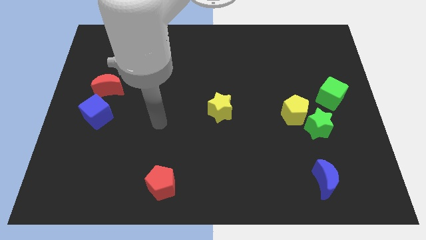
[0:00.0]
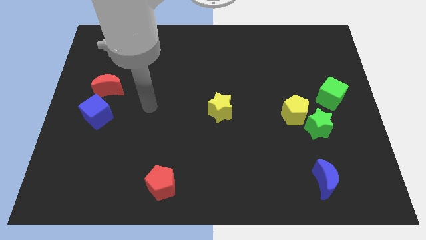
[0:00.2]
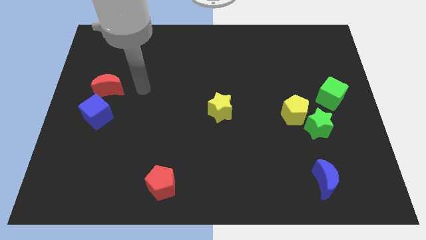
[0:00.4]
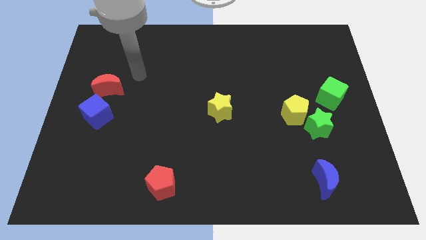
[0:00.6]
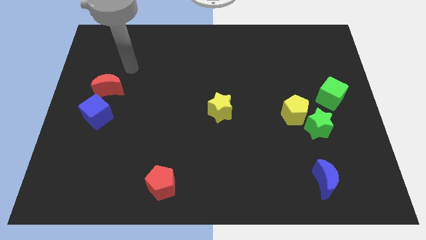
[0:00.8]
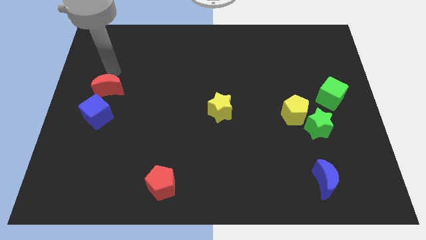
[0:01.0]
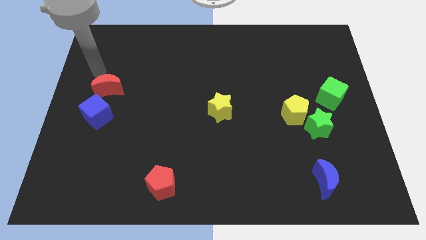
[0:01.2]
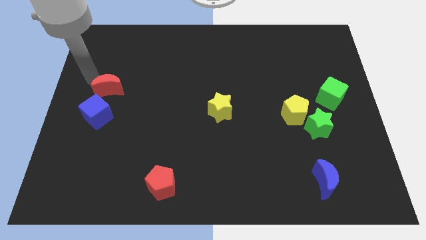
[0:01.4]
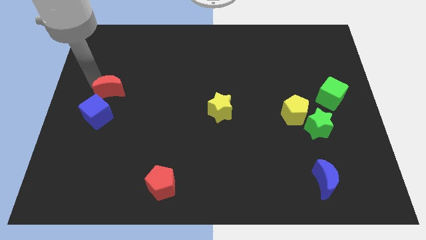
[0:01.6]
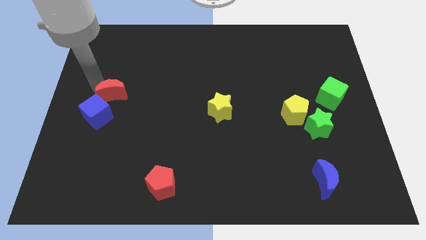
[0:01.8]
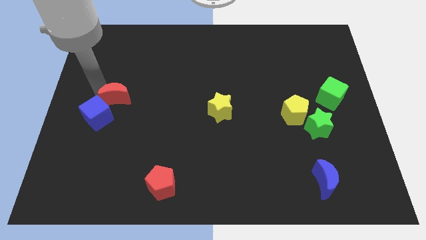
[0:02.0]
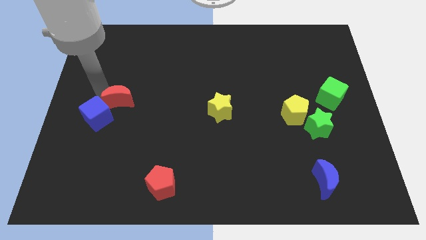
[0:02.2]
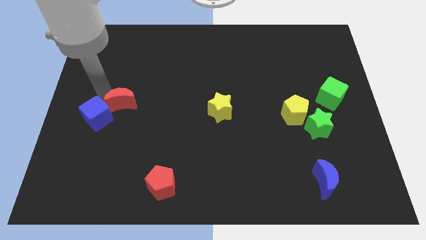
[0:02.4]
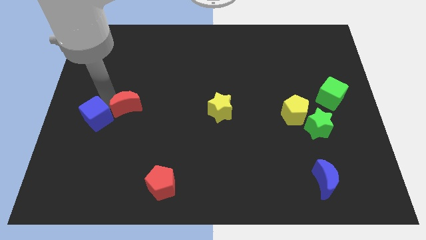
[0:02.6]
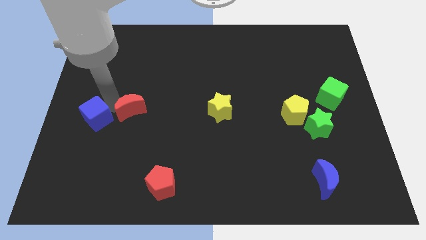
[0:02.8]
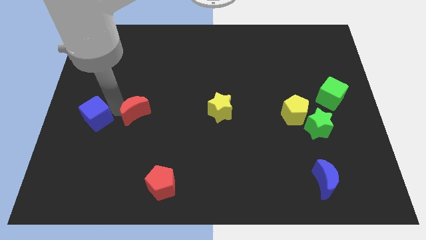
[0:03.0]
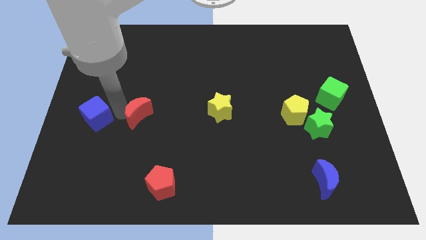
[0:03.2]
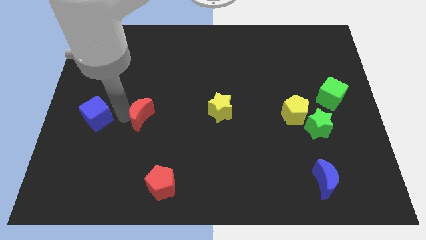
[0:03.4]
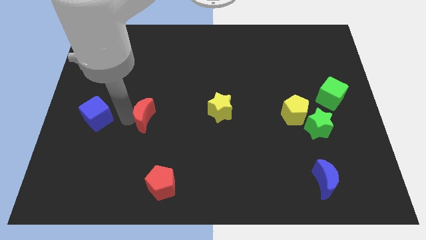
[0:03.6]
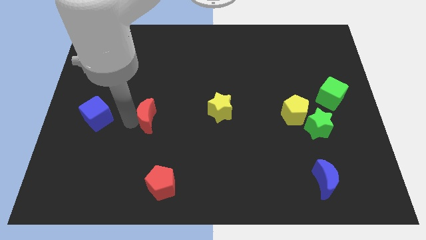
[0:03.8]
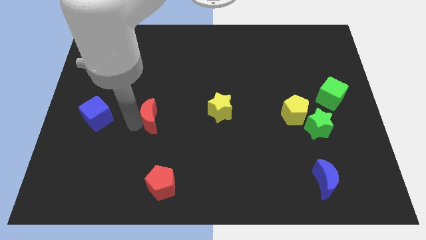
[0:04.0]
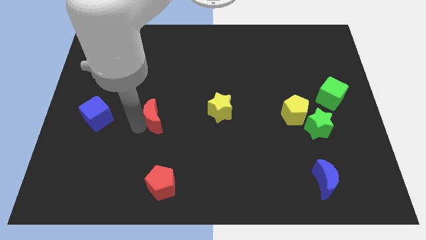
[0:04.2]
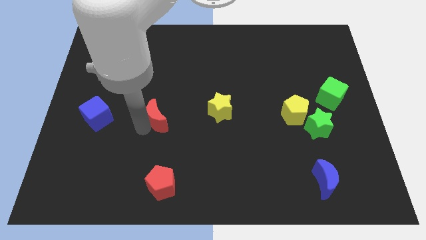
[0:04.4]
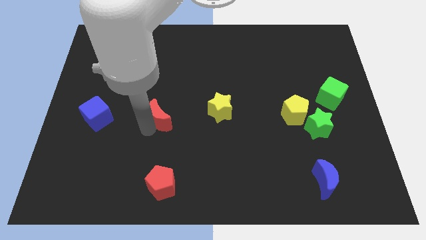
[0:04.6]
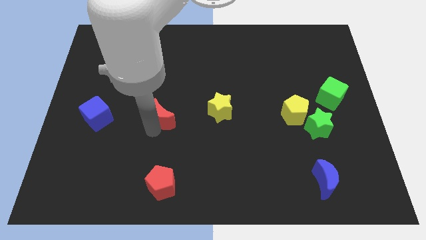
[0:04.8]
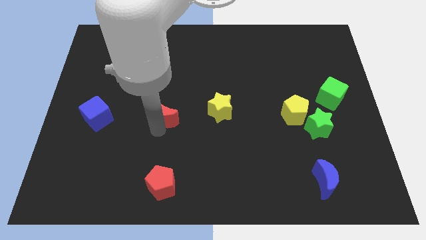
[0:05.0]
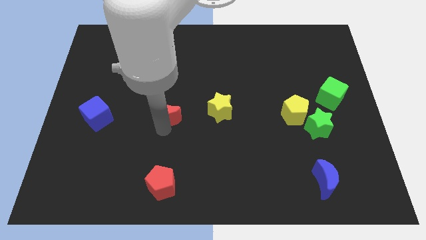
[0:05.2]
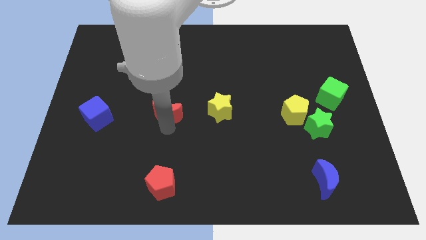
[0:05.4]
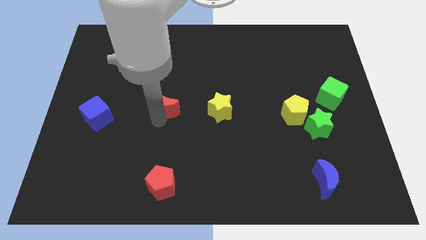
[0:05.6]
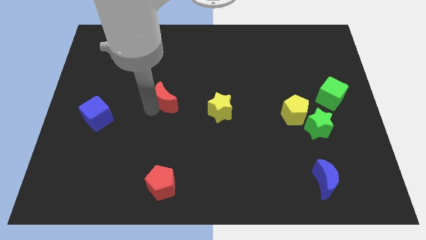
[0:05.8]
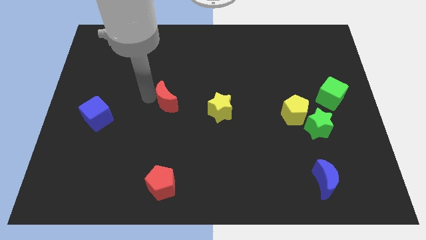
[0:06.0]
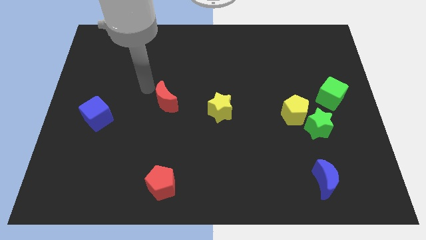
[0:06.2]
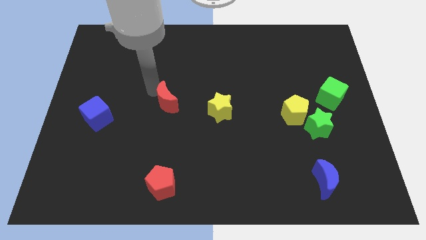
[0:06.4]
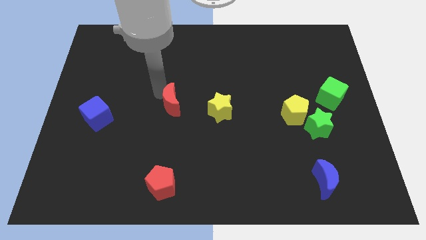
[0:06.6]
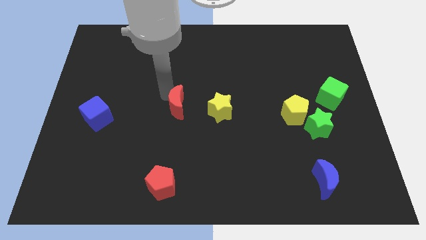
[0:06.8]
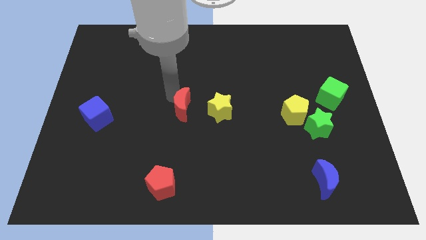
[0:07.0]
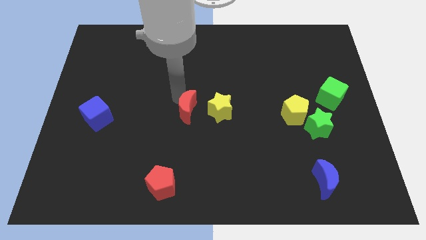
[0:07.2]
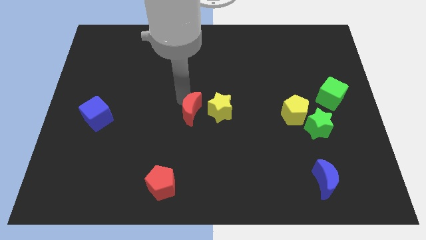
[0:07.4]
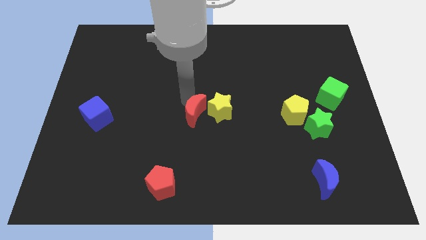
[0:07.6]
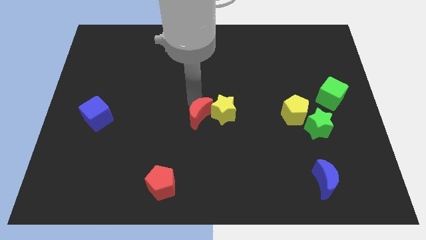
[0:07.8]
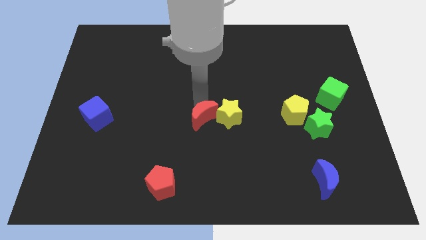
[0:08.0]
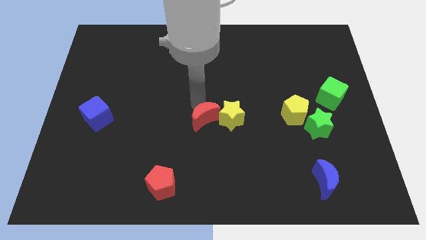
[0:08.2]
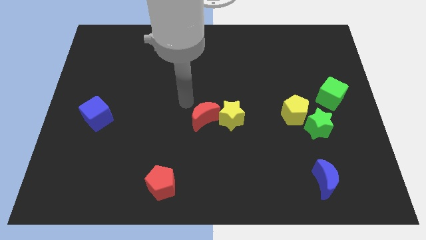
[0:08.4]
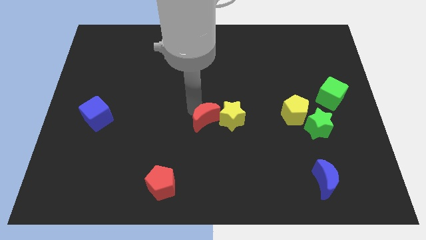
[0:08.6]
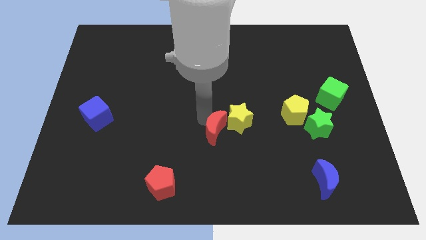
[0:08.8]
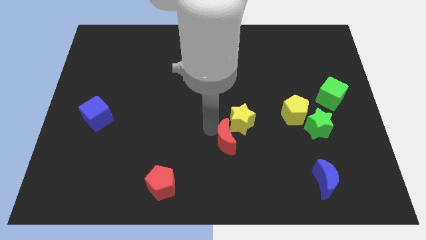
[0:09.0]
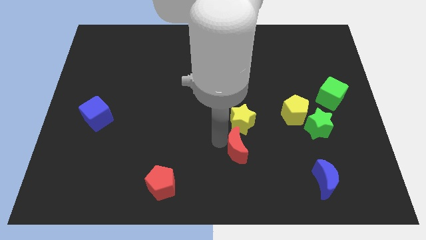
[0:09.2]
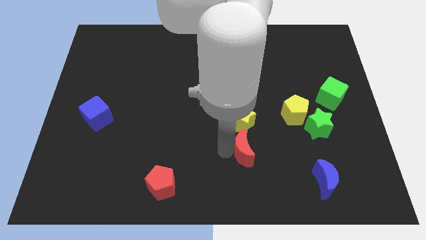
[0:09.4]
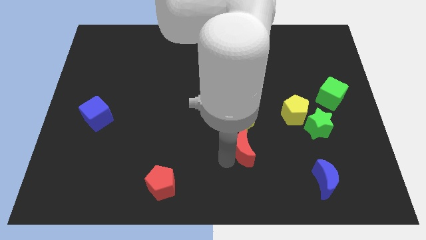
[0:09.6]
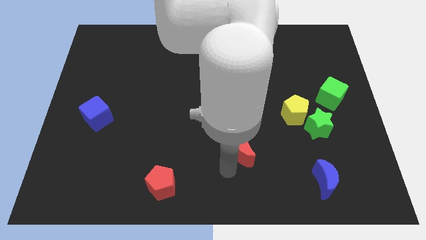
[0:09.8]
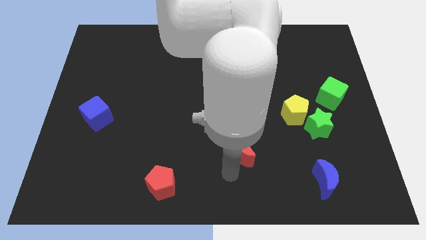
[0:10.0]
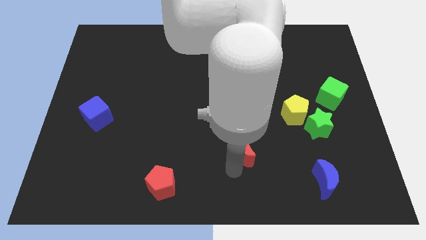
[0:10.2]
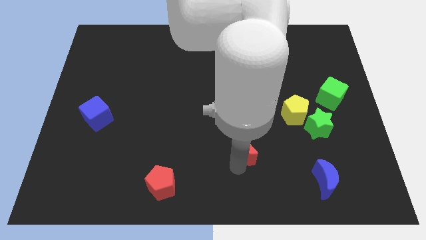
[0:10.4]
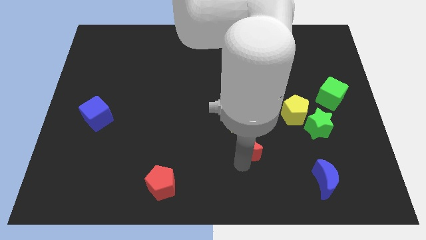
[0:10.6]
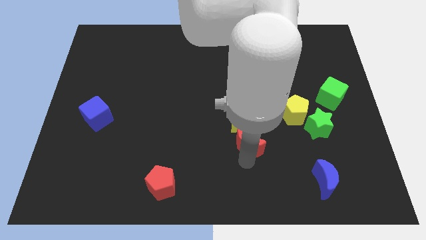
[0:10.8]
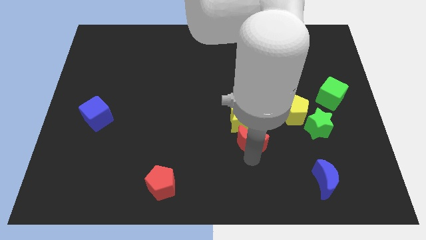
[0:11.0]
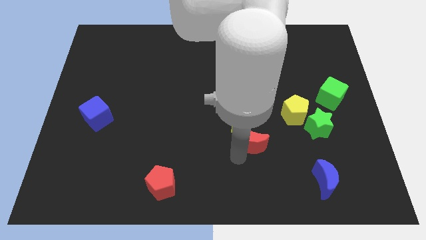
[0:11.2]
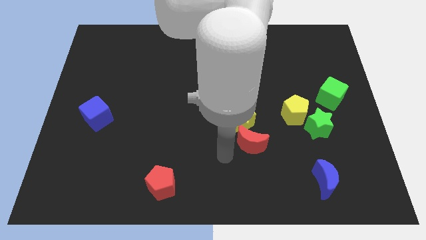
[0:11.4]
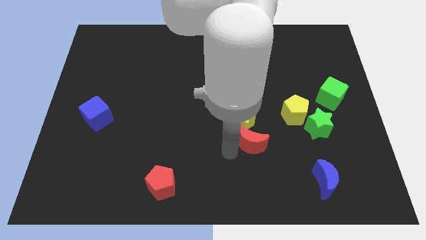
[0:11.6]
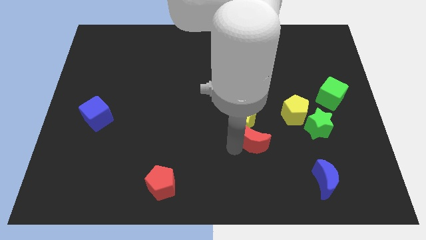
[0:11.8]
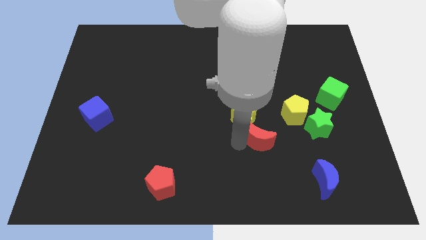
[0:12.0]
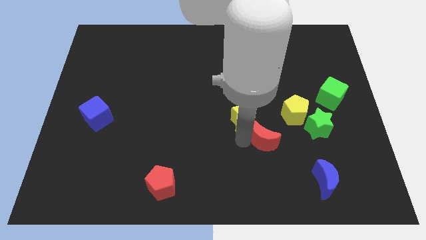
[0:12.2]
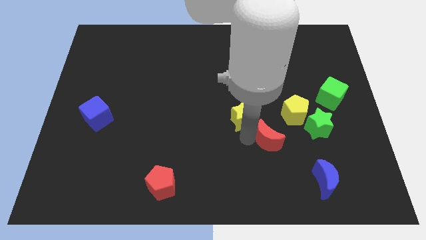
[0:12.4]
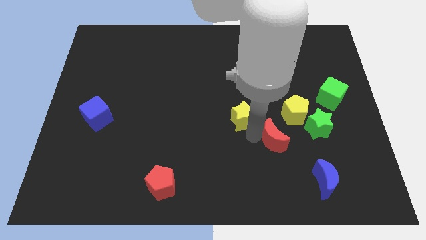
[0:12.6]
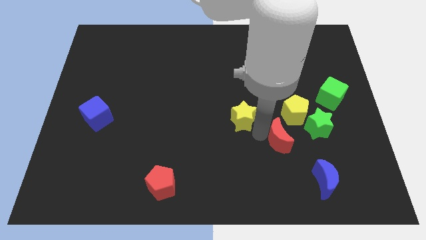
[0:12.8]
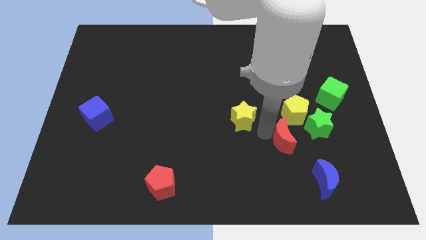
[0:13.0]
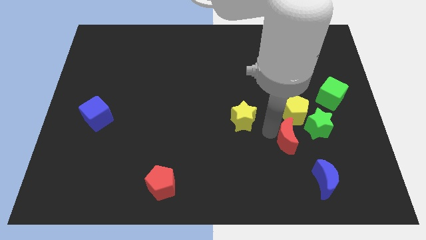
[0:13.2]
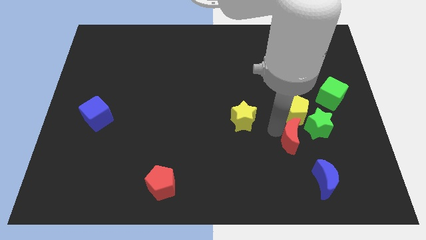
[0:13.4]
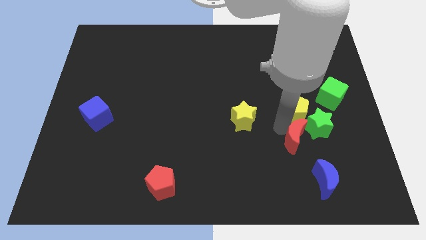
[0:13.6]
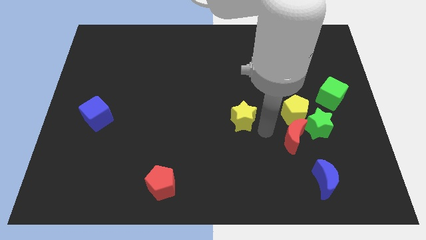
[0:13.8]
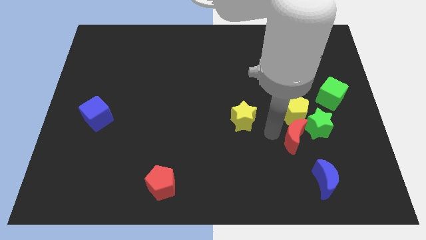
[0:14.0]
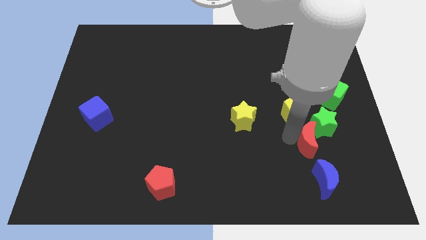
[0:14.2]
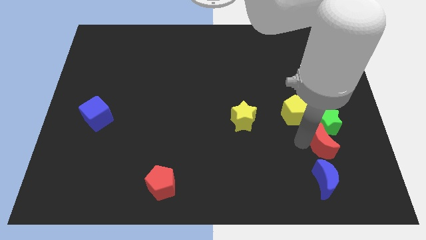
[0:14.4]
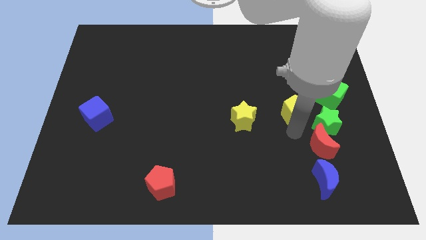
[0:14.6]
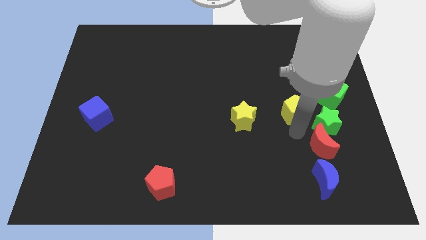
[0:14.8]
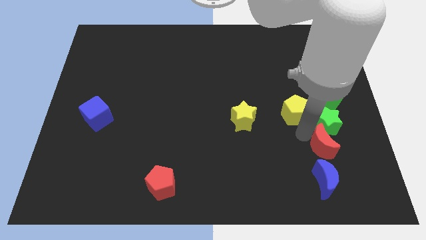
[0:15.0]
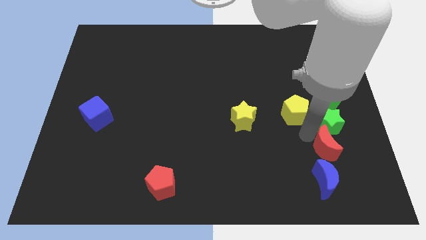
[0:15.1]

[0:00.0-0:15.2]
put the red moon to the top right side of the blue moon
